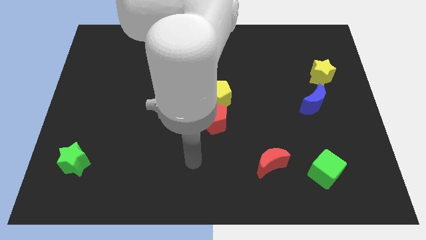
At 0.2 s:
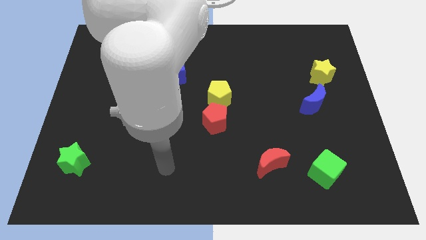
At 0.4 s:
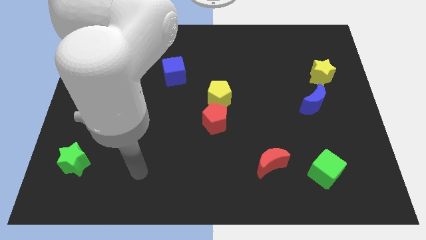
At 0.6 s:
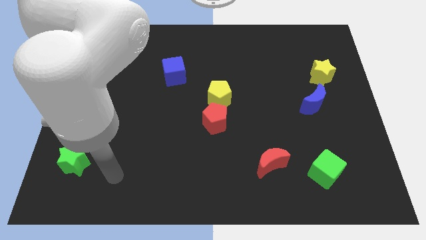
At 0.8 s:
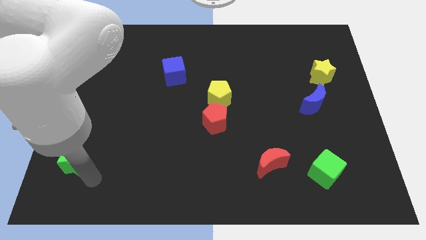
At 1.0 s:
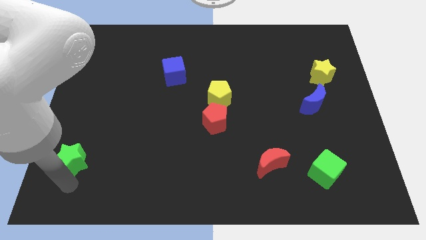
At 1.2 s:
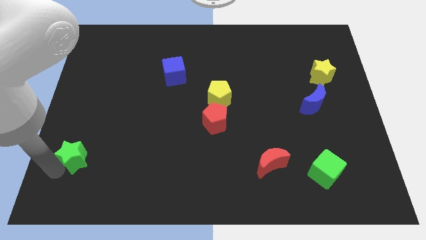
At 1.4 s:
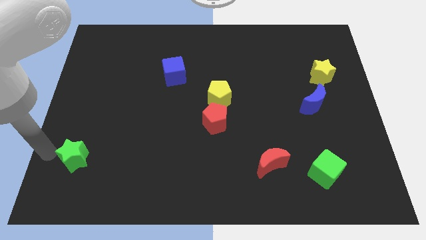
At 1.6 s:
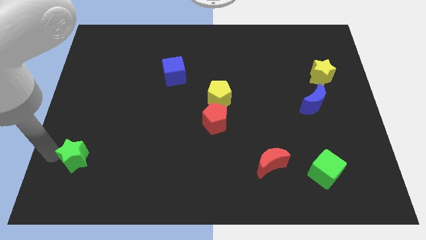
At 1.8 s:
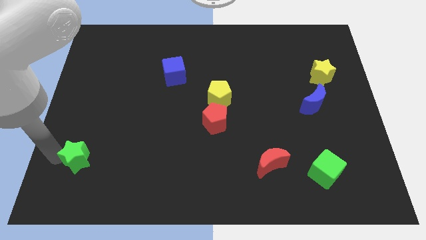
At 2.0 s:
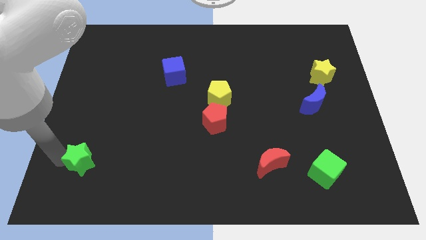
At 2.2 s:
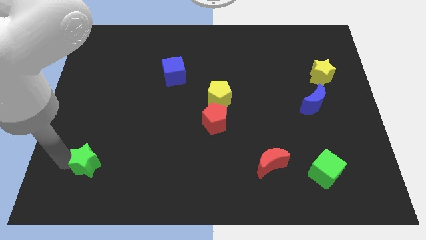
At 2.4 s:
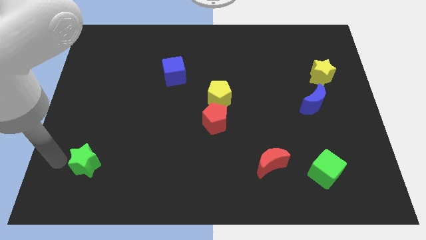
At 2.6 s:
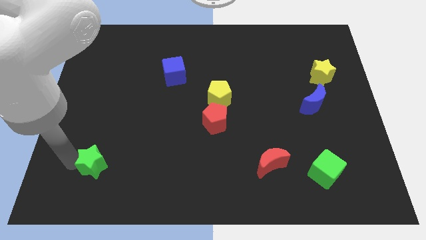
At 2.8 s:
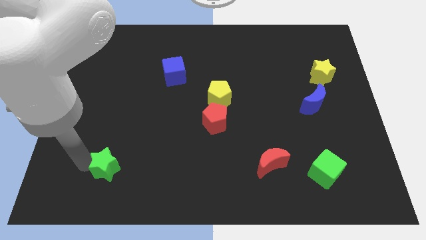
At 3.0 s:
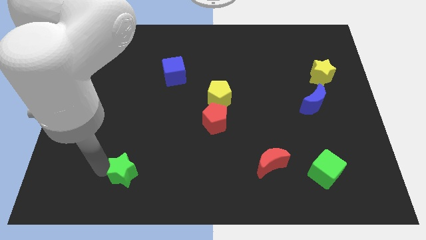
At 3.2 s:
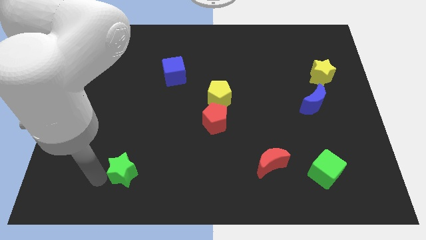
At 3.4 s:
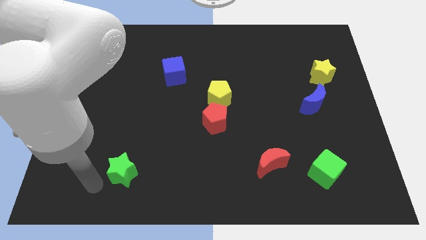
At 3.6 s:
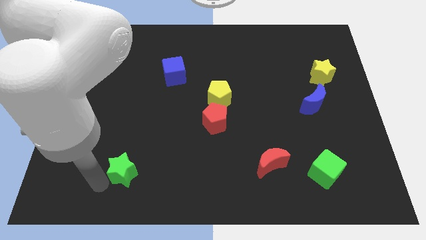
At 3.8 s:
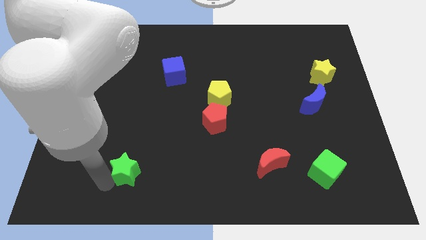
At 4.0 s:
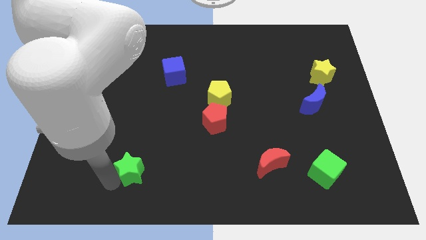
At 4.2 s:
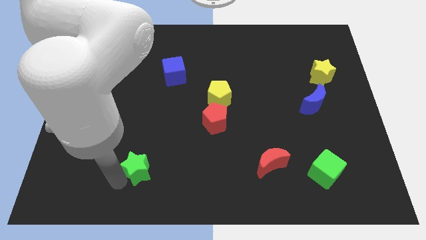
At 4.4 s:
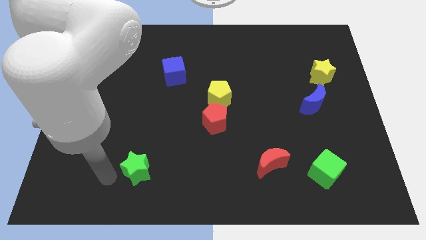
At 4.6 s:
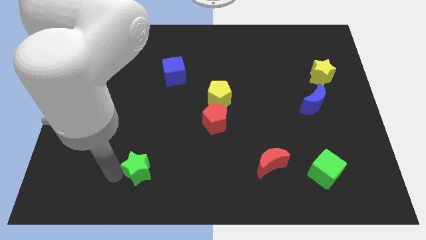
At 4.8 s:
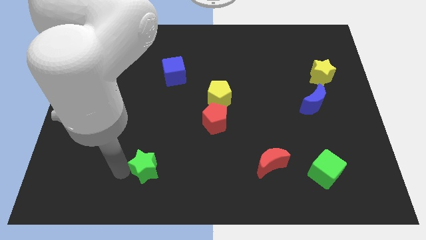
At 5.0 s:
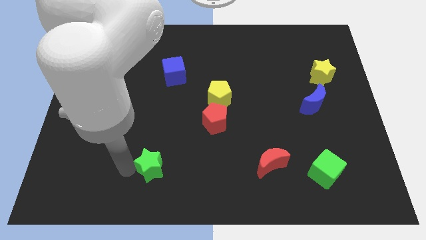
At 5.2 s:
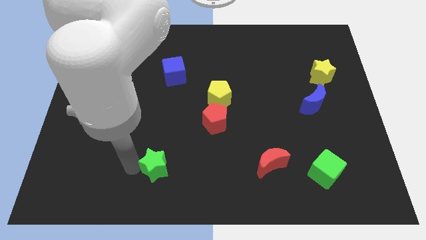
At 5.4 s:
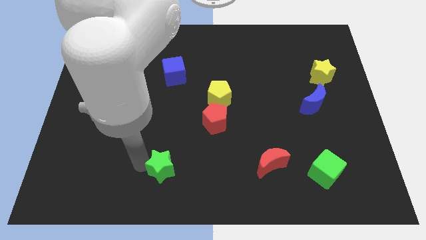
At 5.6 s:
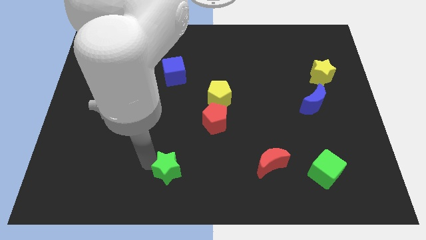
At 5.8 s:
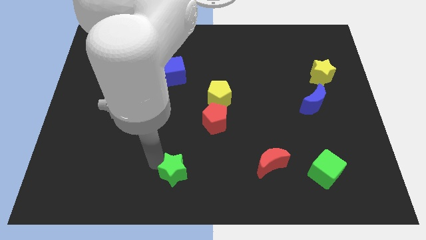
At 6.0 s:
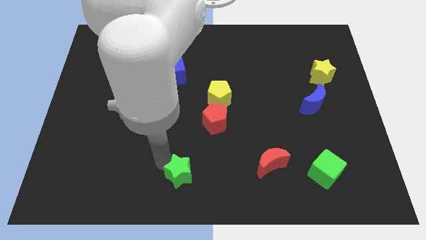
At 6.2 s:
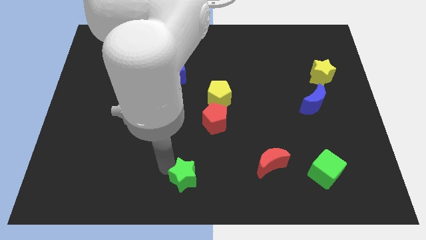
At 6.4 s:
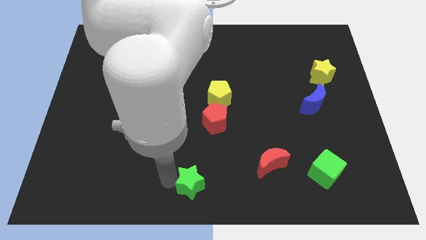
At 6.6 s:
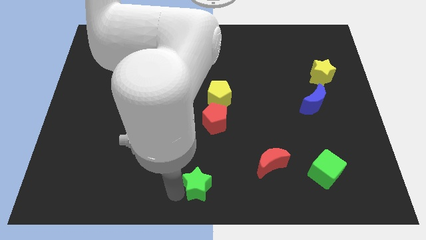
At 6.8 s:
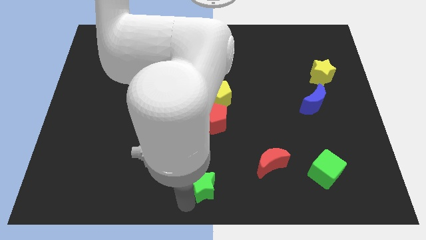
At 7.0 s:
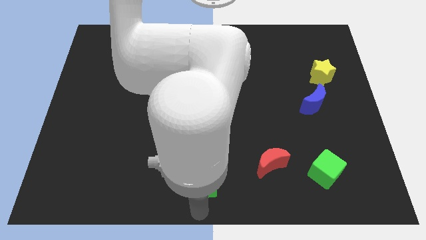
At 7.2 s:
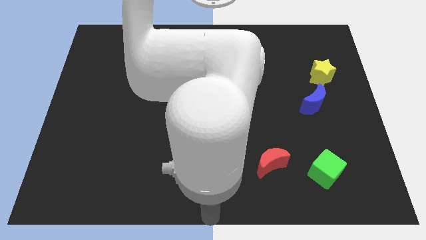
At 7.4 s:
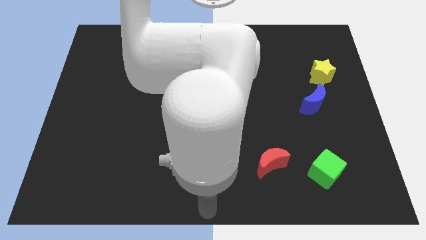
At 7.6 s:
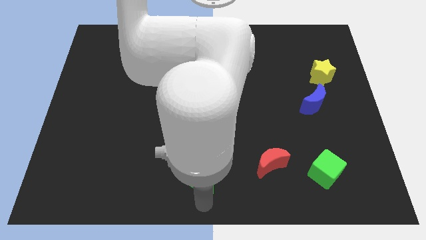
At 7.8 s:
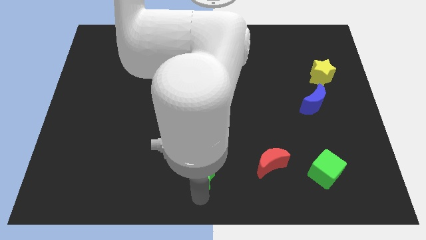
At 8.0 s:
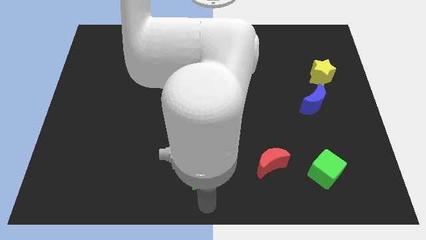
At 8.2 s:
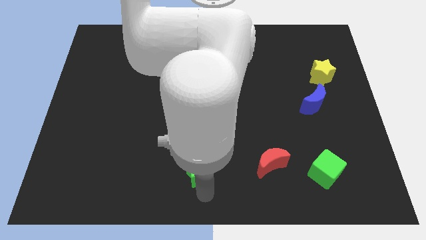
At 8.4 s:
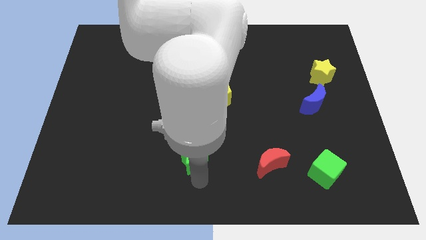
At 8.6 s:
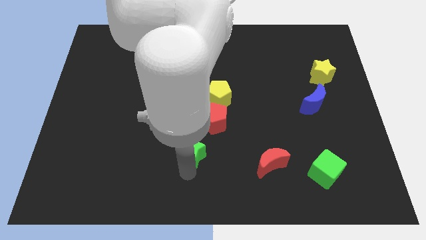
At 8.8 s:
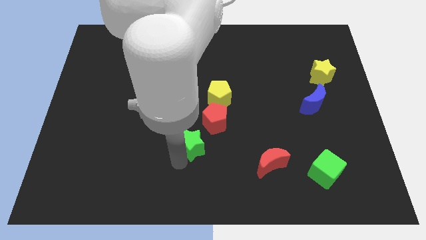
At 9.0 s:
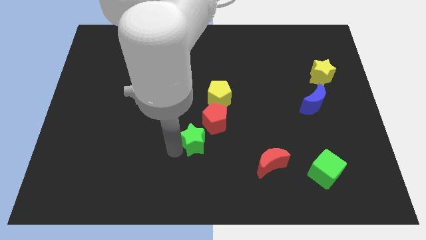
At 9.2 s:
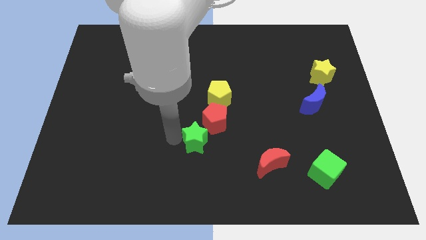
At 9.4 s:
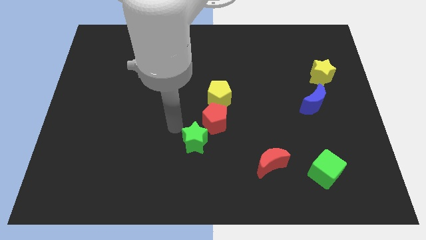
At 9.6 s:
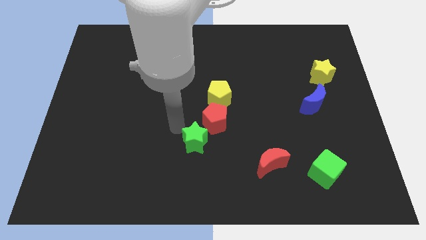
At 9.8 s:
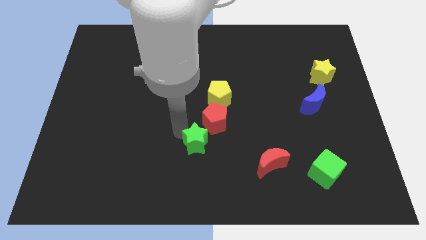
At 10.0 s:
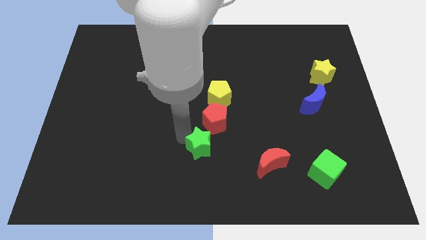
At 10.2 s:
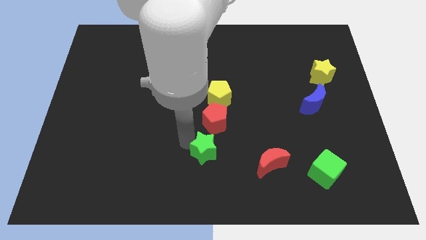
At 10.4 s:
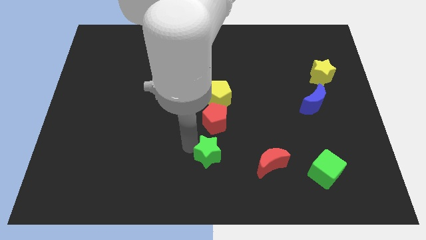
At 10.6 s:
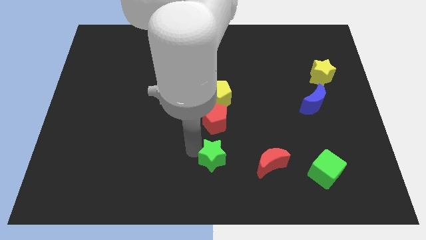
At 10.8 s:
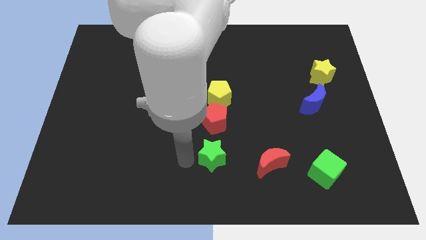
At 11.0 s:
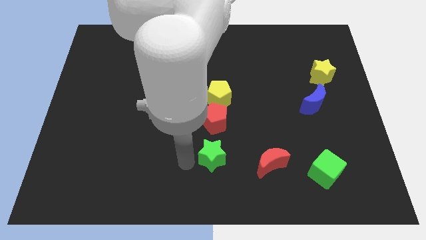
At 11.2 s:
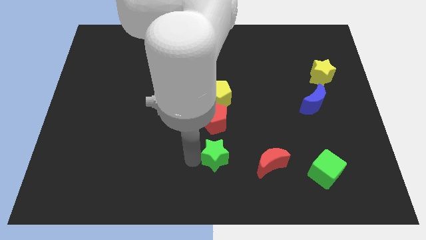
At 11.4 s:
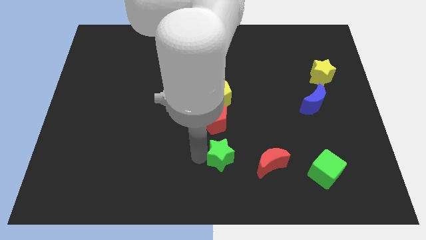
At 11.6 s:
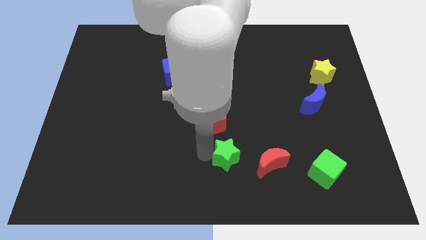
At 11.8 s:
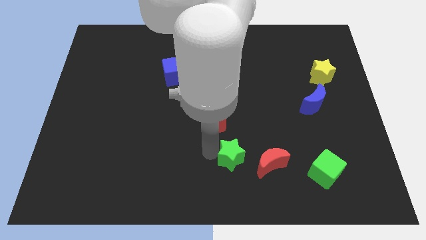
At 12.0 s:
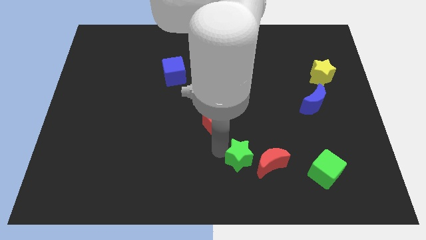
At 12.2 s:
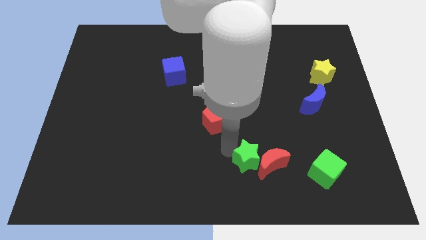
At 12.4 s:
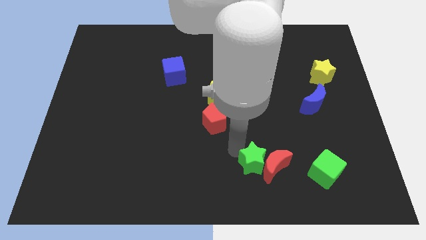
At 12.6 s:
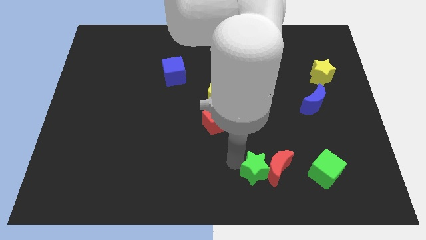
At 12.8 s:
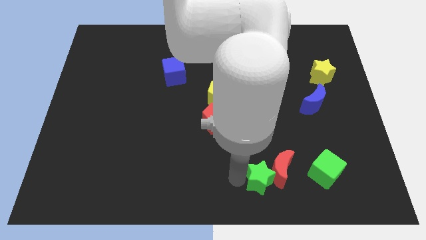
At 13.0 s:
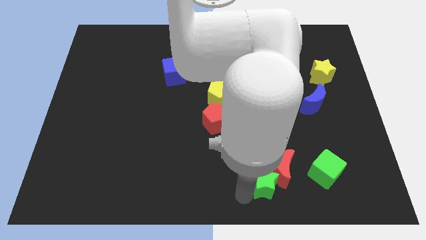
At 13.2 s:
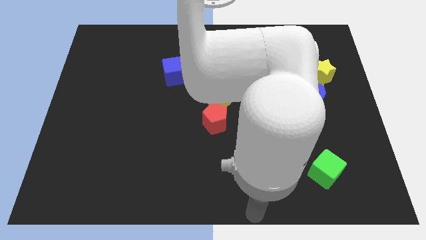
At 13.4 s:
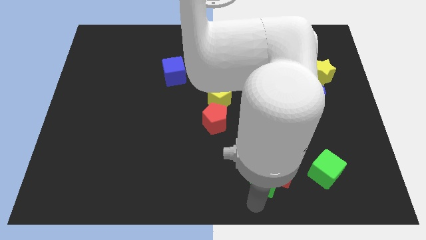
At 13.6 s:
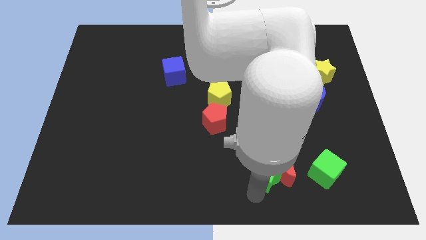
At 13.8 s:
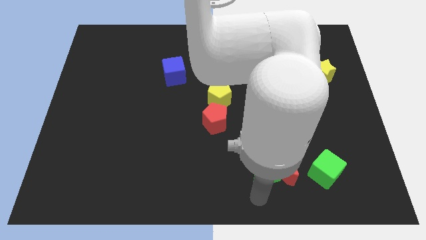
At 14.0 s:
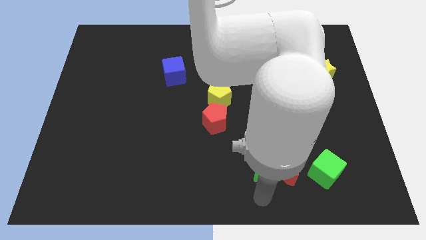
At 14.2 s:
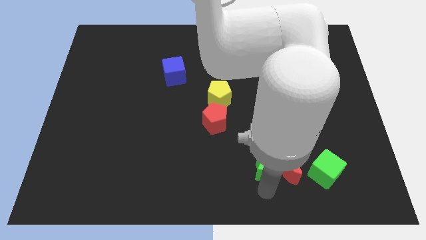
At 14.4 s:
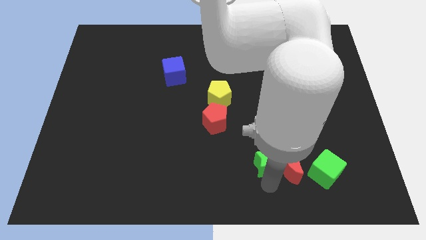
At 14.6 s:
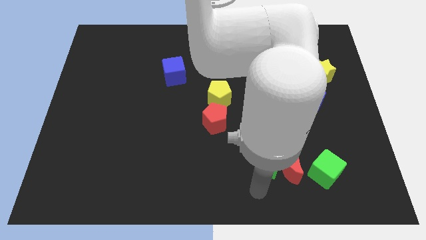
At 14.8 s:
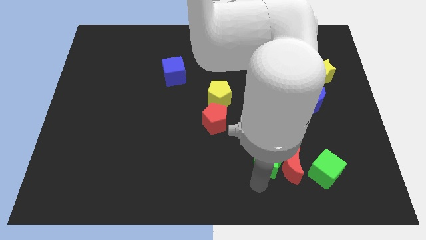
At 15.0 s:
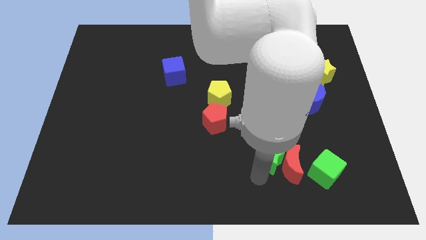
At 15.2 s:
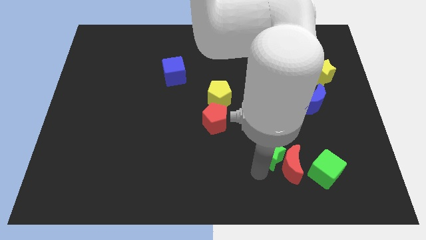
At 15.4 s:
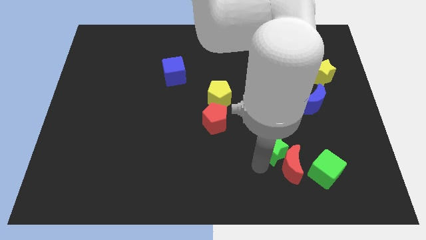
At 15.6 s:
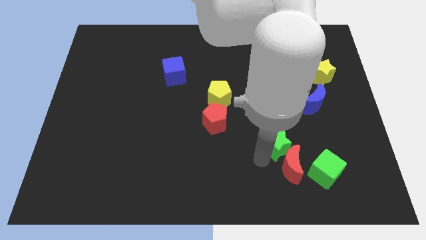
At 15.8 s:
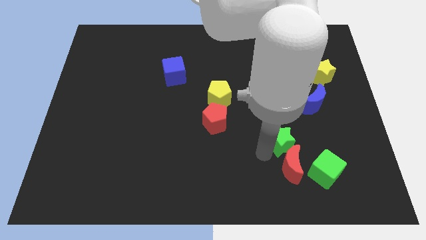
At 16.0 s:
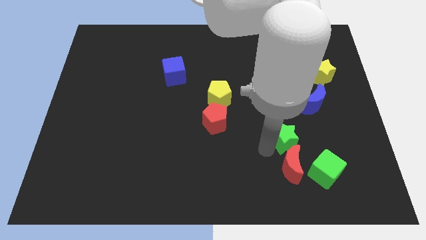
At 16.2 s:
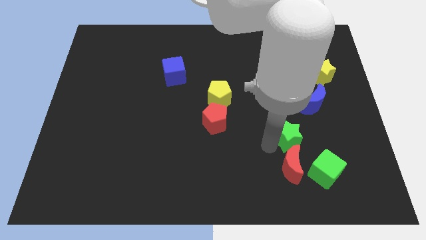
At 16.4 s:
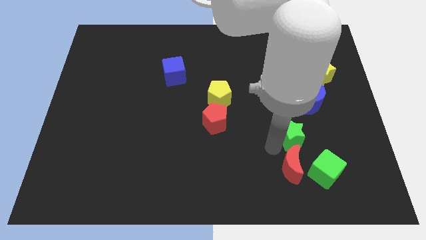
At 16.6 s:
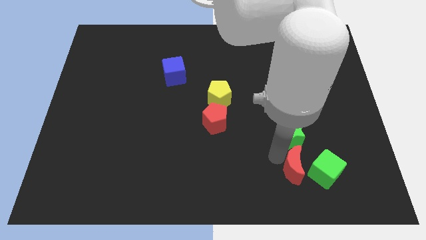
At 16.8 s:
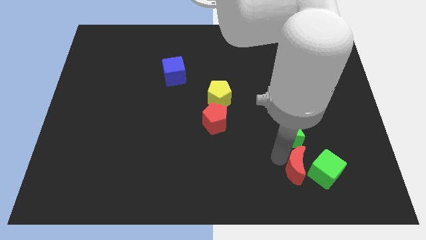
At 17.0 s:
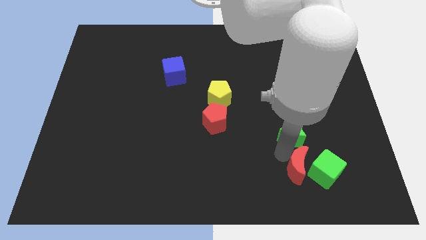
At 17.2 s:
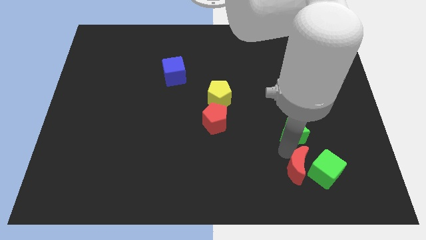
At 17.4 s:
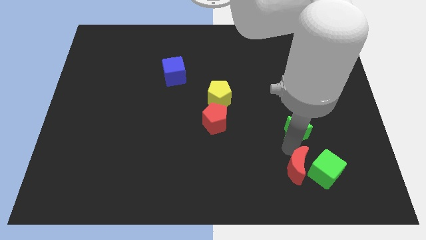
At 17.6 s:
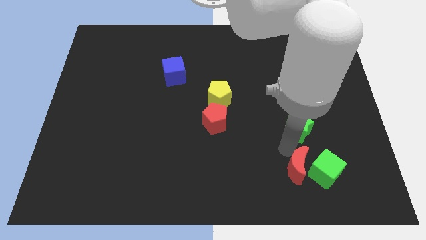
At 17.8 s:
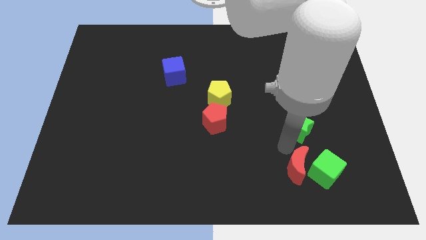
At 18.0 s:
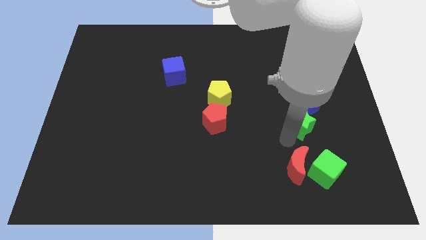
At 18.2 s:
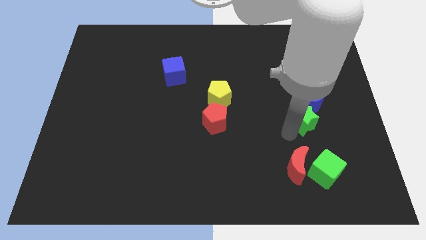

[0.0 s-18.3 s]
push the green star towards the blue moon
